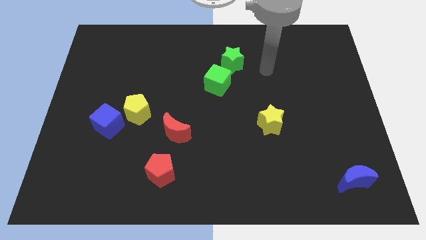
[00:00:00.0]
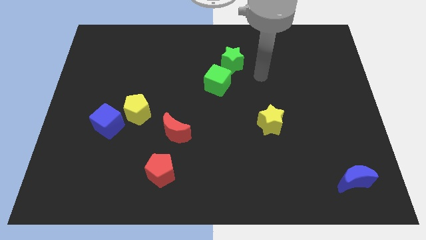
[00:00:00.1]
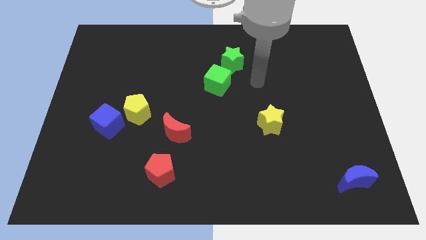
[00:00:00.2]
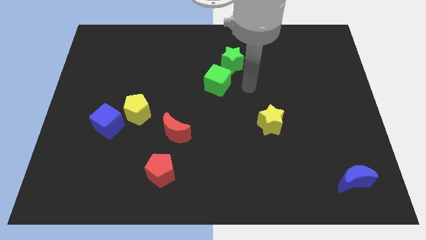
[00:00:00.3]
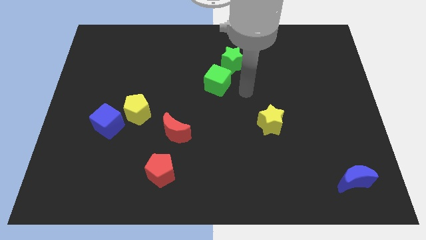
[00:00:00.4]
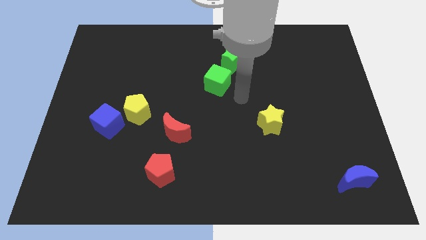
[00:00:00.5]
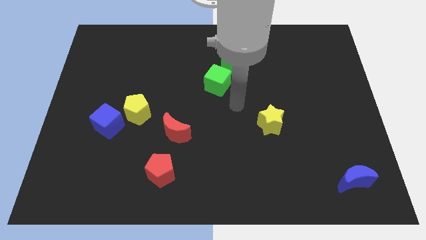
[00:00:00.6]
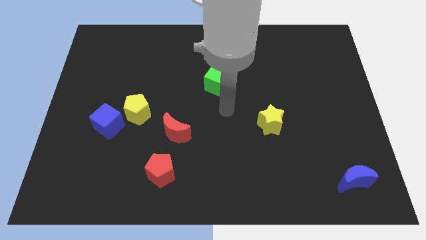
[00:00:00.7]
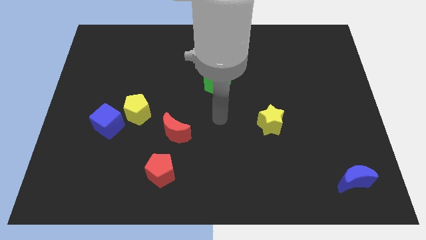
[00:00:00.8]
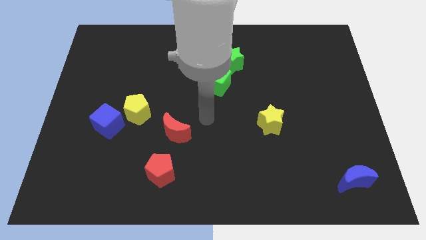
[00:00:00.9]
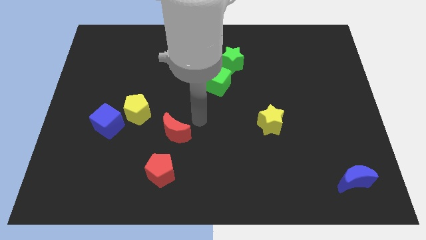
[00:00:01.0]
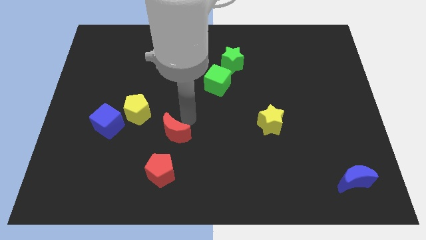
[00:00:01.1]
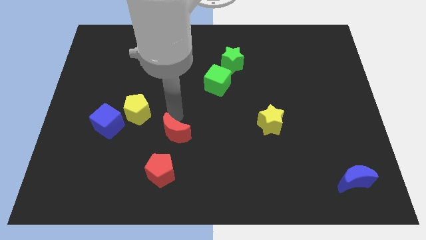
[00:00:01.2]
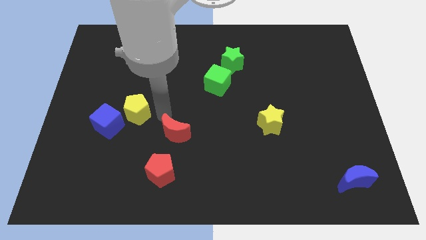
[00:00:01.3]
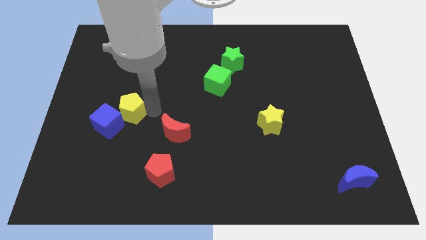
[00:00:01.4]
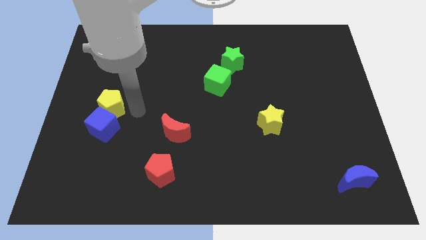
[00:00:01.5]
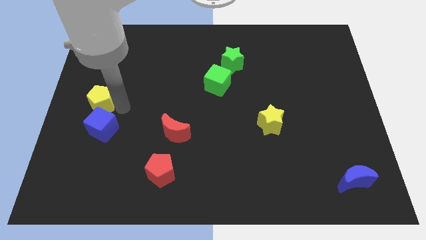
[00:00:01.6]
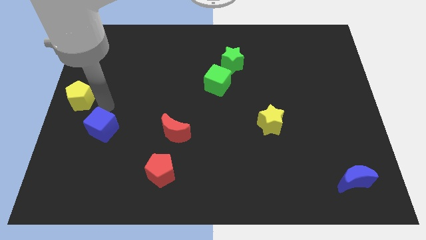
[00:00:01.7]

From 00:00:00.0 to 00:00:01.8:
move the blue cube away from the yellow pentagon

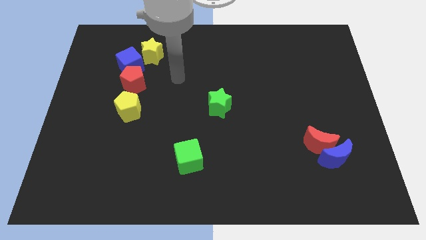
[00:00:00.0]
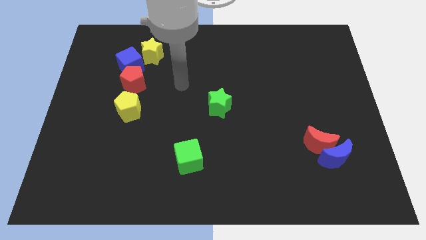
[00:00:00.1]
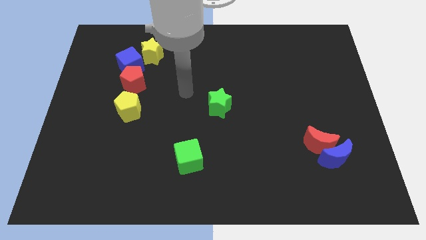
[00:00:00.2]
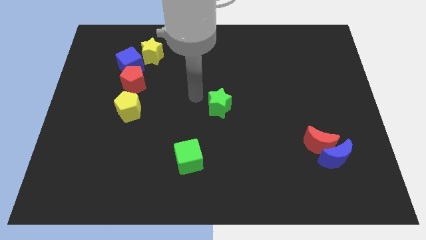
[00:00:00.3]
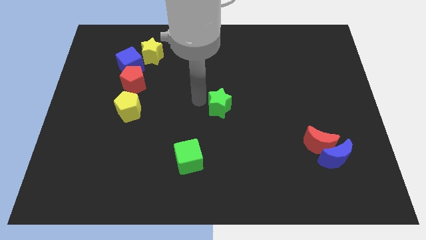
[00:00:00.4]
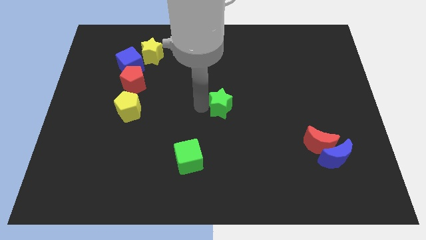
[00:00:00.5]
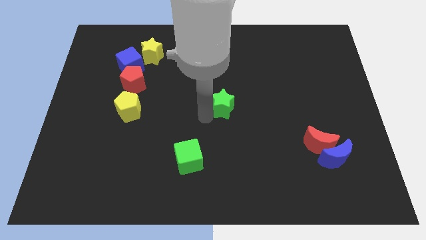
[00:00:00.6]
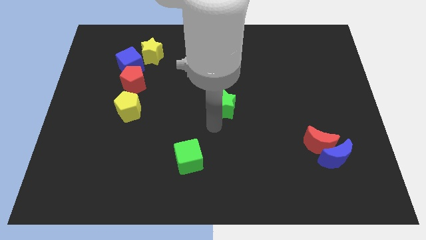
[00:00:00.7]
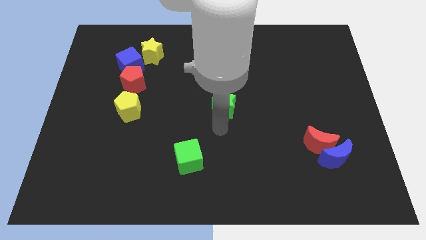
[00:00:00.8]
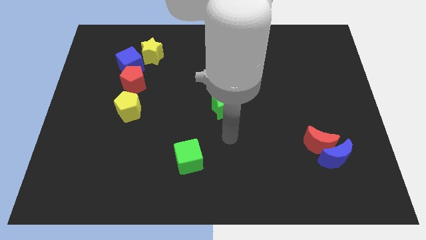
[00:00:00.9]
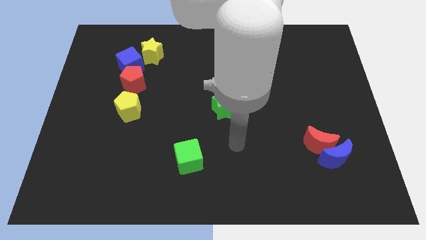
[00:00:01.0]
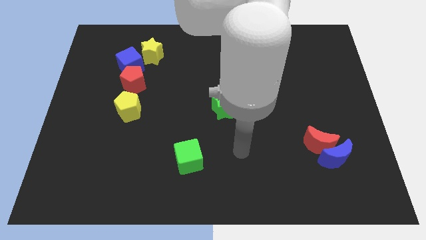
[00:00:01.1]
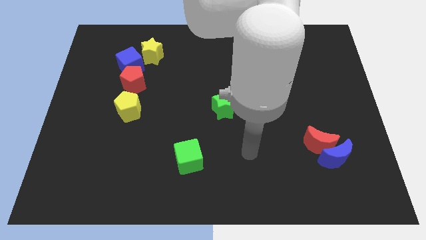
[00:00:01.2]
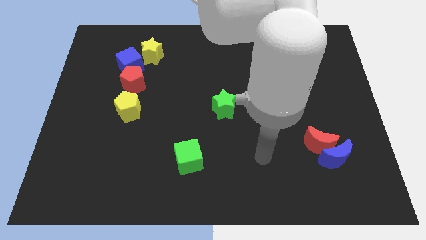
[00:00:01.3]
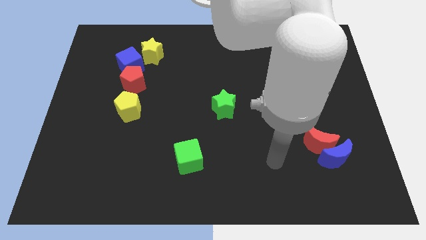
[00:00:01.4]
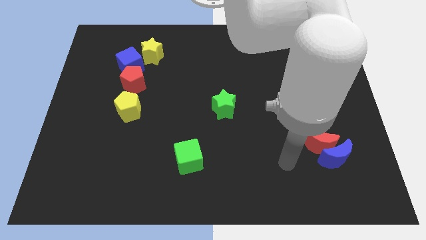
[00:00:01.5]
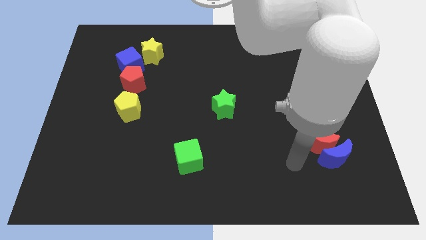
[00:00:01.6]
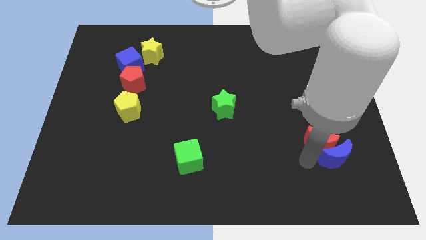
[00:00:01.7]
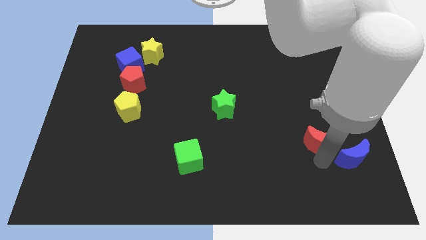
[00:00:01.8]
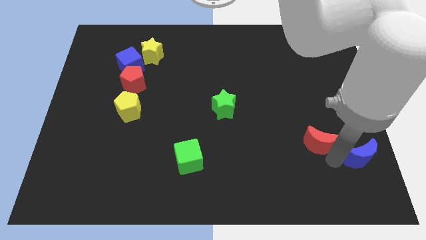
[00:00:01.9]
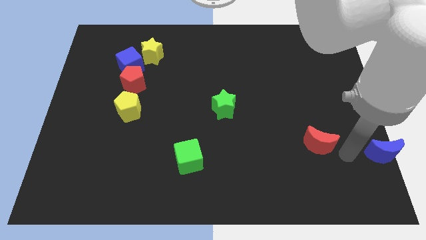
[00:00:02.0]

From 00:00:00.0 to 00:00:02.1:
separate the red moon from the blue moon

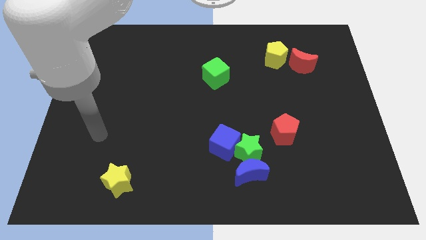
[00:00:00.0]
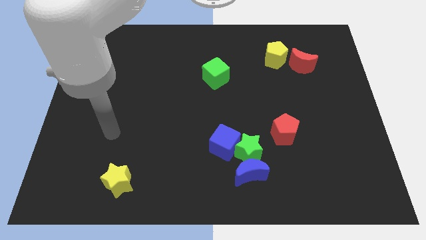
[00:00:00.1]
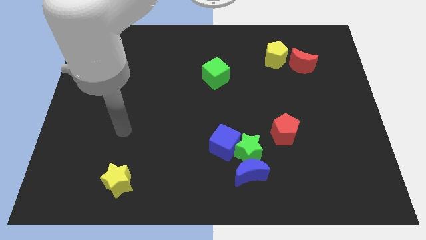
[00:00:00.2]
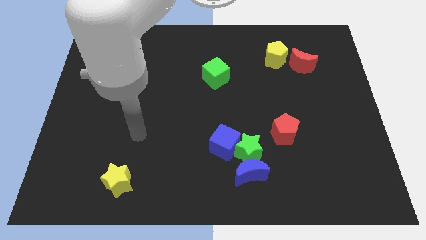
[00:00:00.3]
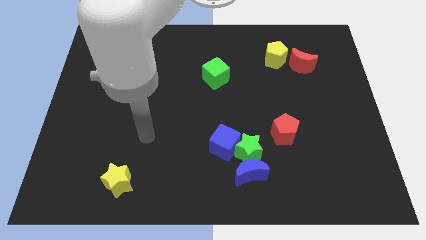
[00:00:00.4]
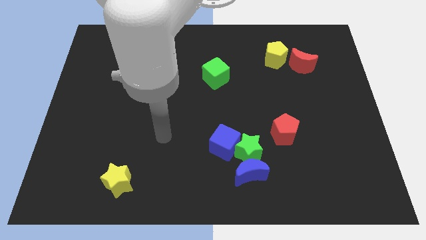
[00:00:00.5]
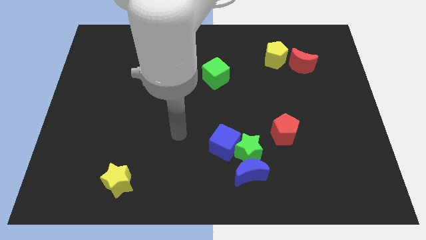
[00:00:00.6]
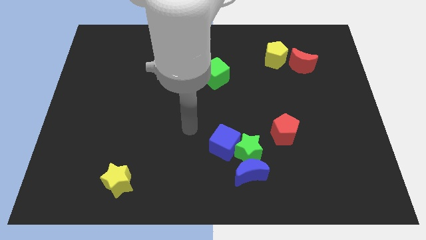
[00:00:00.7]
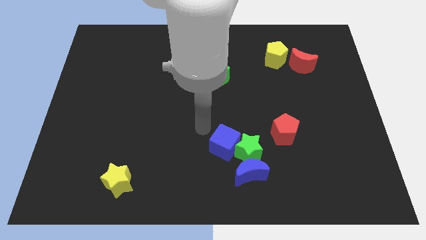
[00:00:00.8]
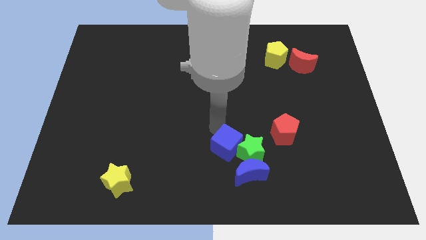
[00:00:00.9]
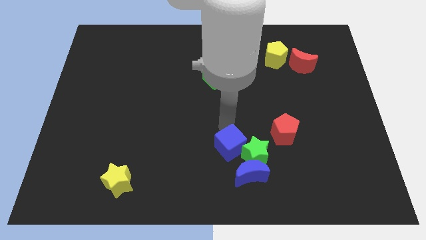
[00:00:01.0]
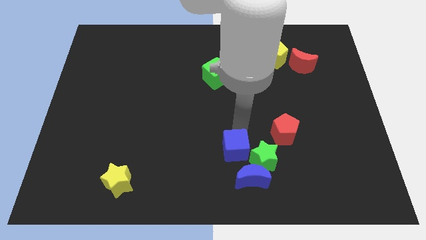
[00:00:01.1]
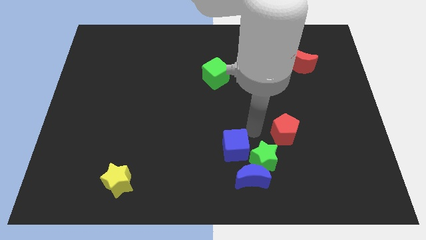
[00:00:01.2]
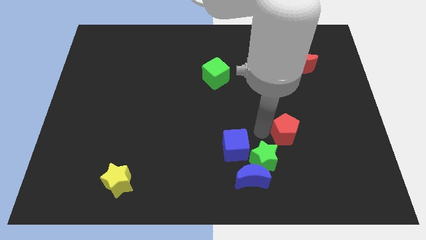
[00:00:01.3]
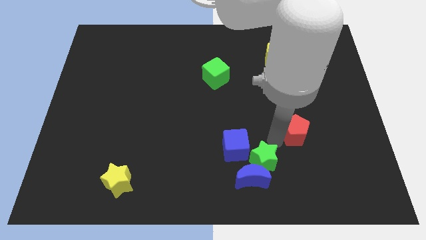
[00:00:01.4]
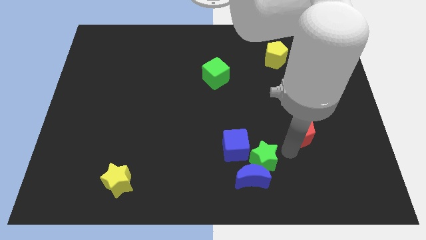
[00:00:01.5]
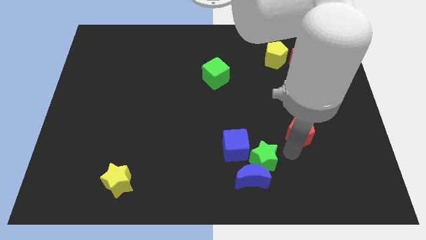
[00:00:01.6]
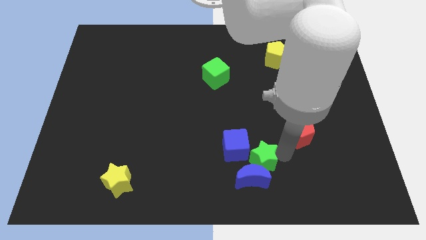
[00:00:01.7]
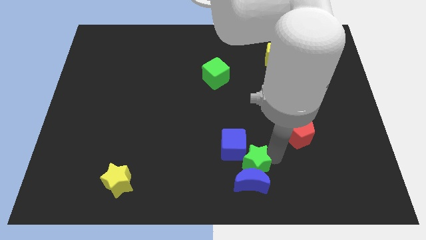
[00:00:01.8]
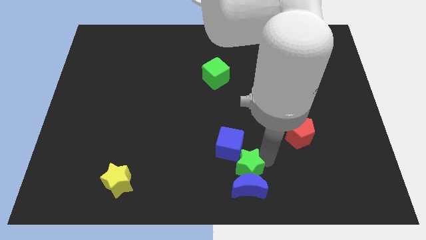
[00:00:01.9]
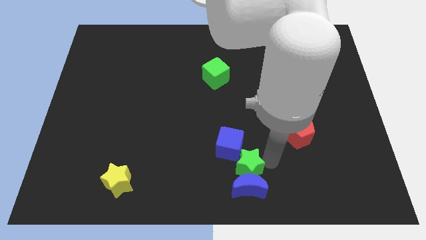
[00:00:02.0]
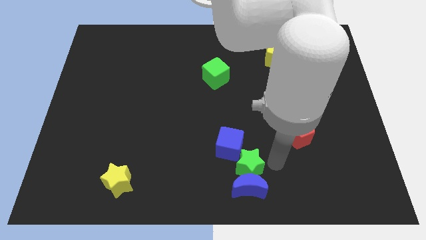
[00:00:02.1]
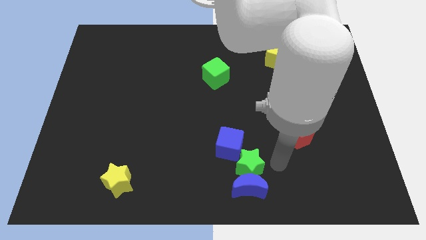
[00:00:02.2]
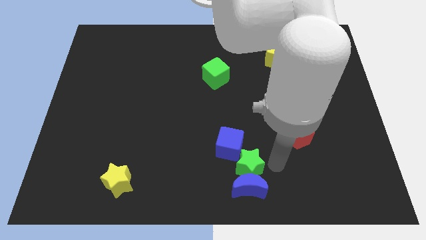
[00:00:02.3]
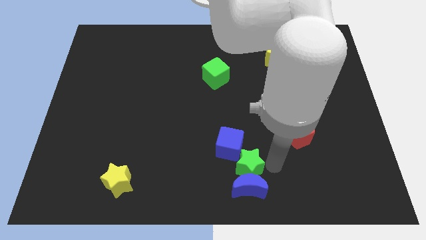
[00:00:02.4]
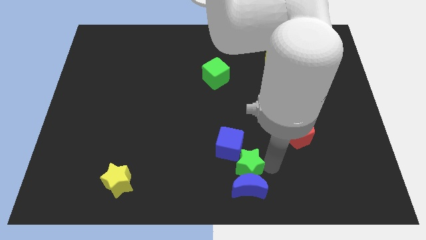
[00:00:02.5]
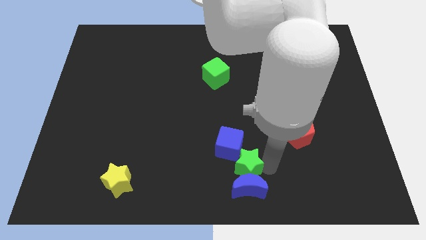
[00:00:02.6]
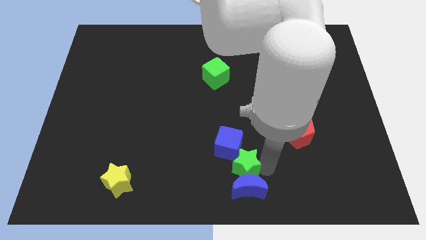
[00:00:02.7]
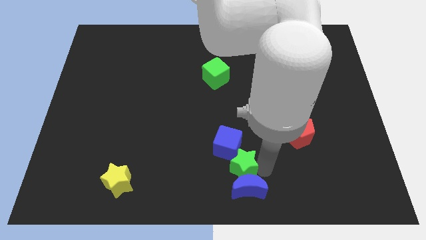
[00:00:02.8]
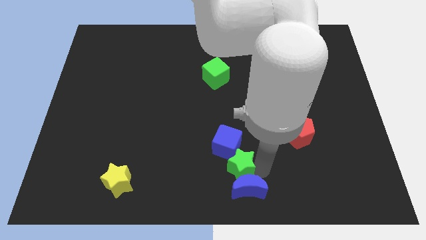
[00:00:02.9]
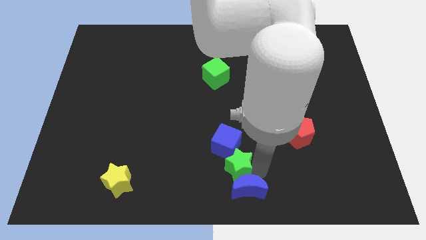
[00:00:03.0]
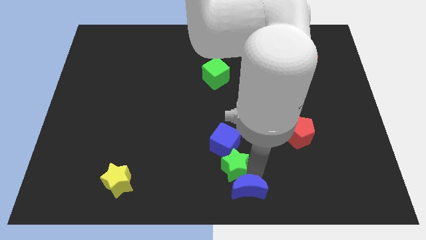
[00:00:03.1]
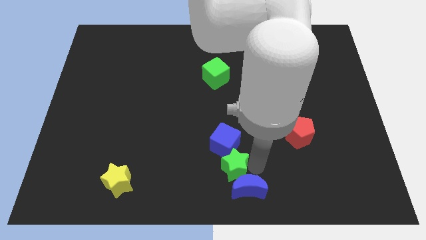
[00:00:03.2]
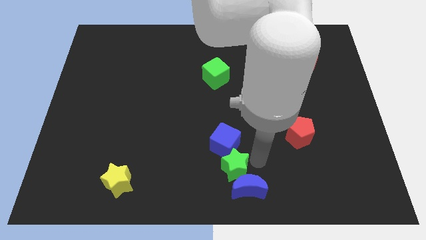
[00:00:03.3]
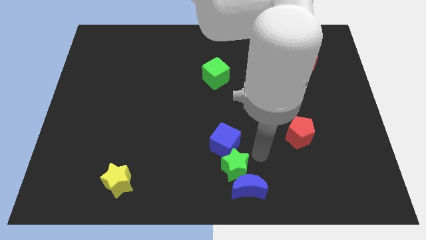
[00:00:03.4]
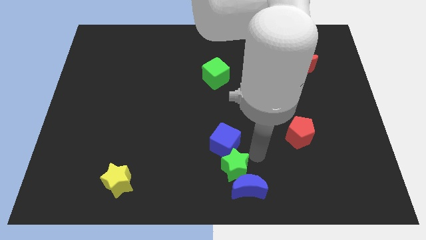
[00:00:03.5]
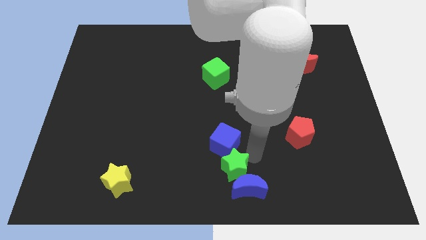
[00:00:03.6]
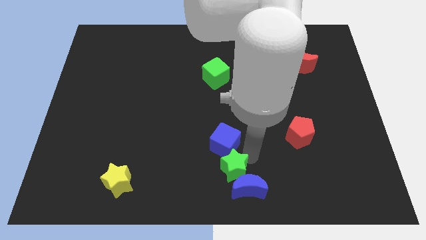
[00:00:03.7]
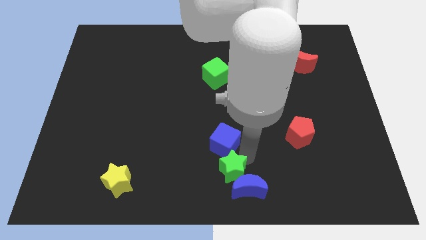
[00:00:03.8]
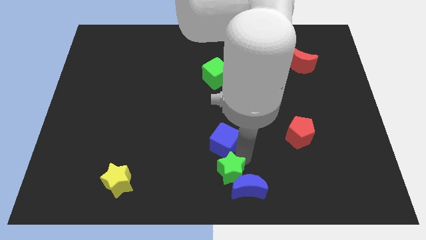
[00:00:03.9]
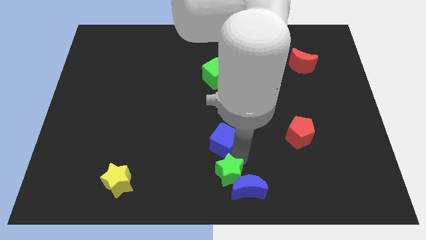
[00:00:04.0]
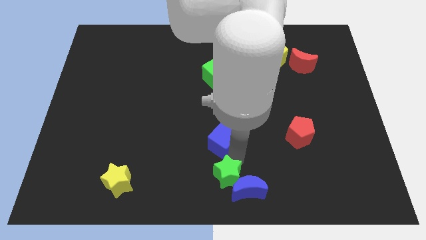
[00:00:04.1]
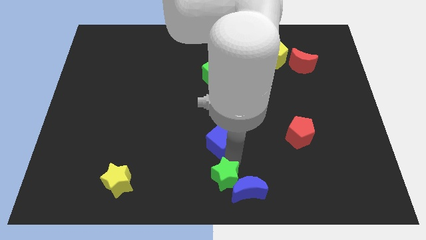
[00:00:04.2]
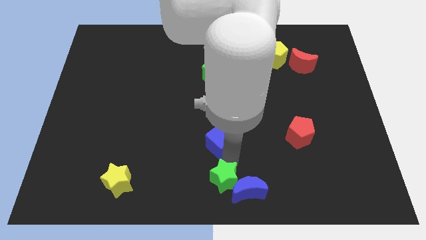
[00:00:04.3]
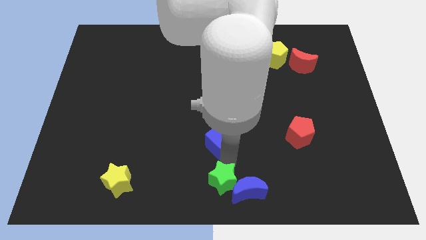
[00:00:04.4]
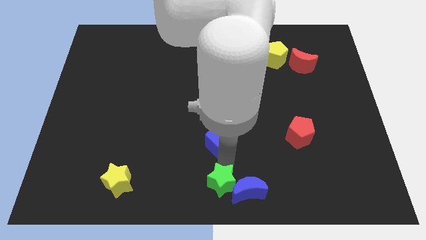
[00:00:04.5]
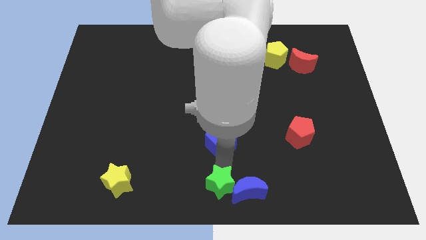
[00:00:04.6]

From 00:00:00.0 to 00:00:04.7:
separate the green star from the group of blocks

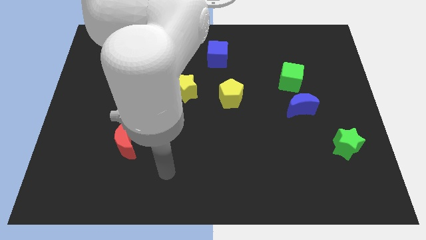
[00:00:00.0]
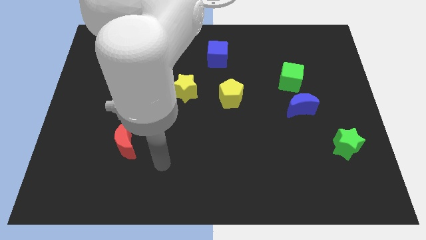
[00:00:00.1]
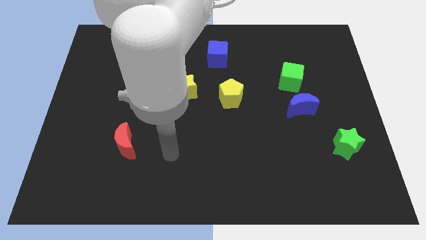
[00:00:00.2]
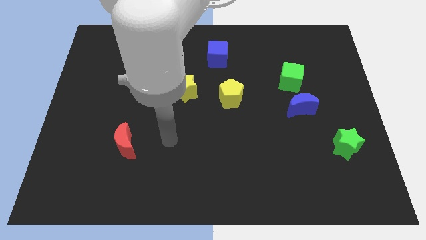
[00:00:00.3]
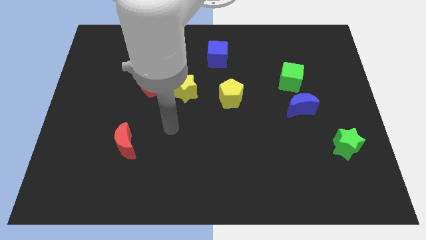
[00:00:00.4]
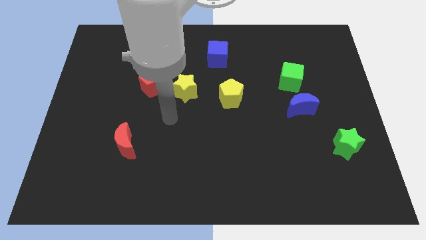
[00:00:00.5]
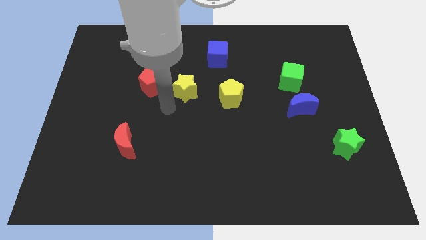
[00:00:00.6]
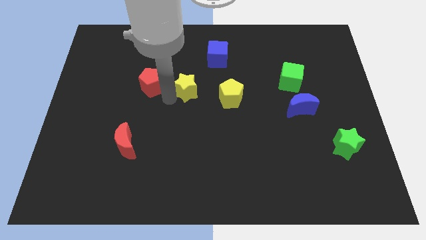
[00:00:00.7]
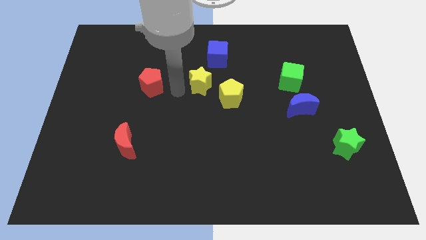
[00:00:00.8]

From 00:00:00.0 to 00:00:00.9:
pull the red pentagon apart from the yellow star
